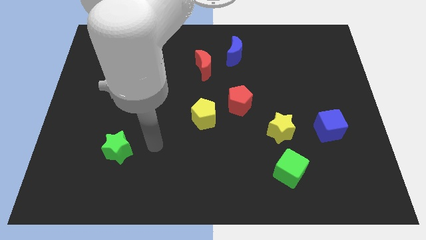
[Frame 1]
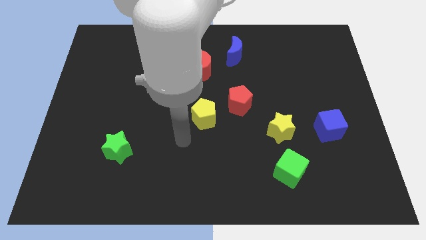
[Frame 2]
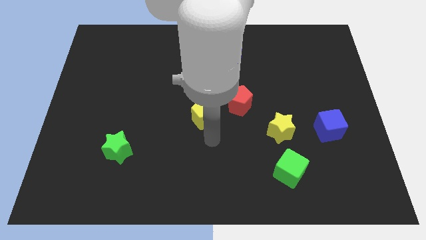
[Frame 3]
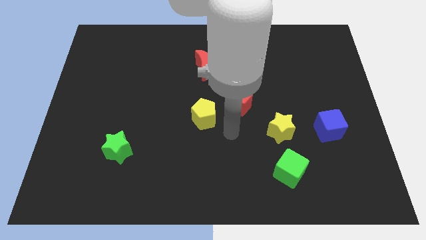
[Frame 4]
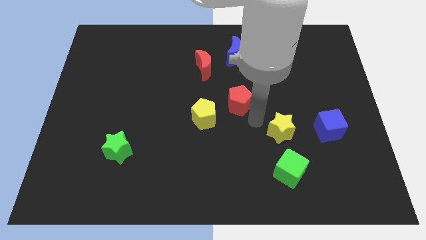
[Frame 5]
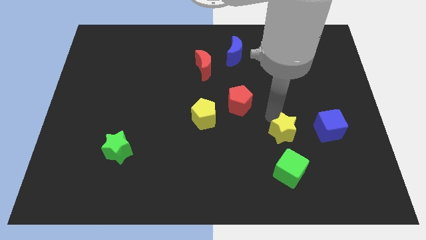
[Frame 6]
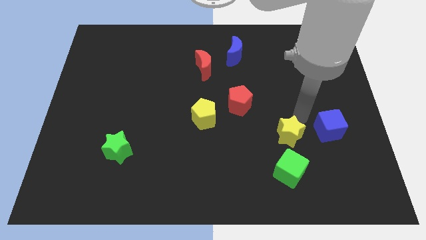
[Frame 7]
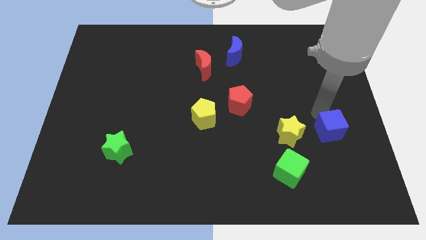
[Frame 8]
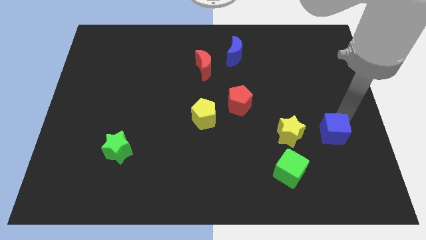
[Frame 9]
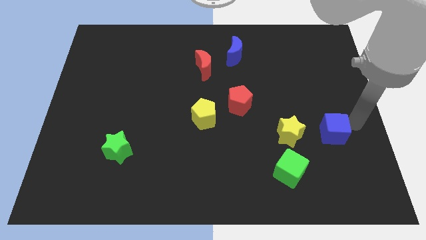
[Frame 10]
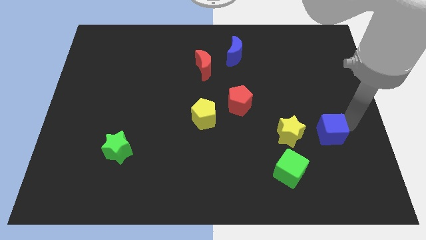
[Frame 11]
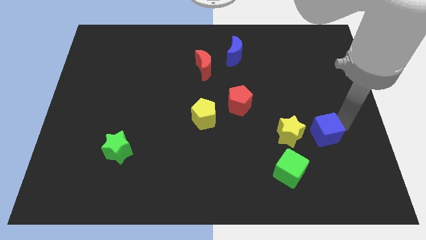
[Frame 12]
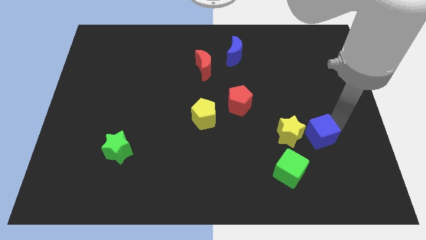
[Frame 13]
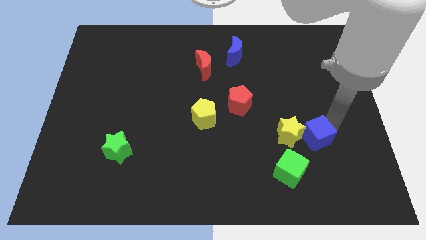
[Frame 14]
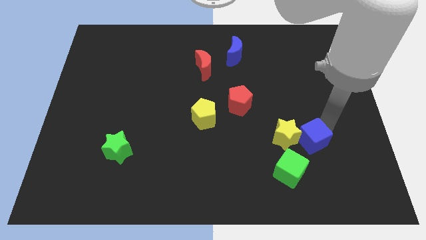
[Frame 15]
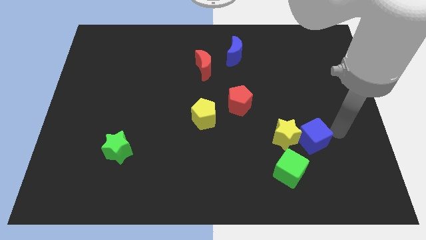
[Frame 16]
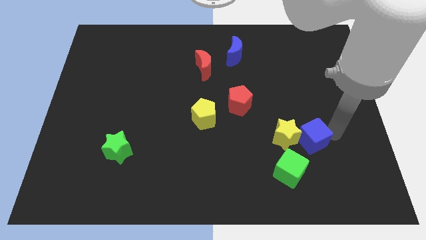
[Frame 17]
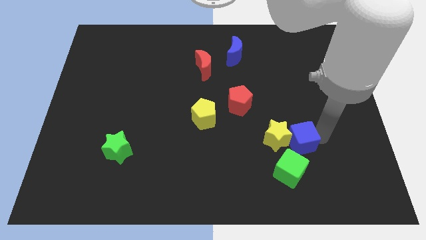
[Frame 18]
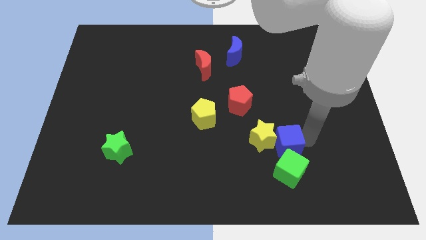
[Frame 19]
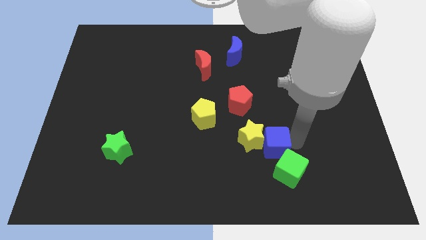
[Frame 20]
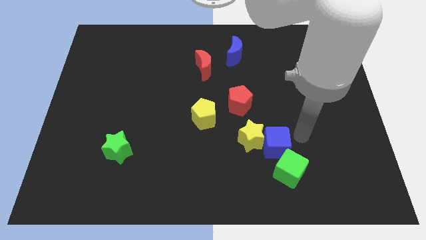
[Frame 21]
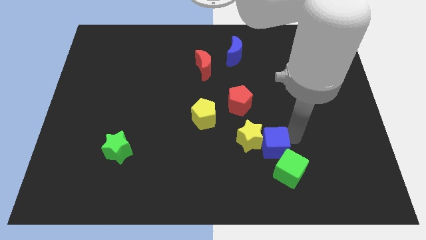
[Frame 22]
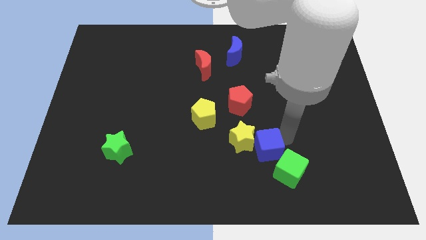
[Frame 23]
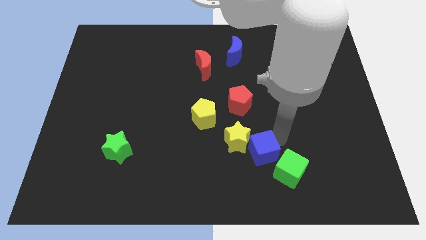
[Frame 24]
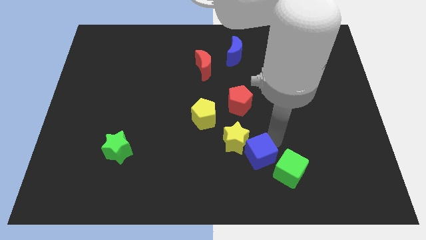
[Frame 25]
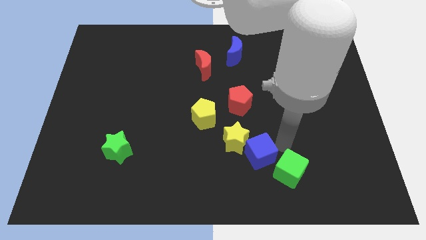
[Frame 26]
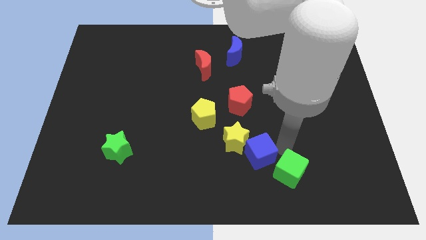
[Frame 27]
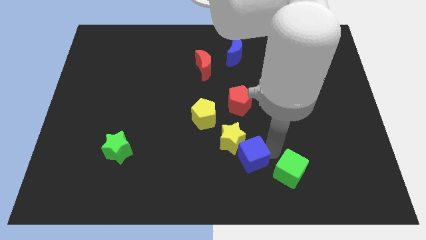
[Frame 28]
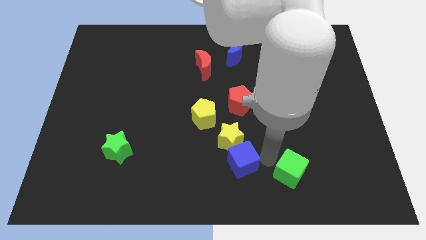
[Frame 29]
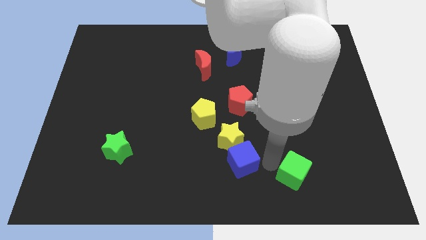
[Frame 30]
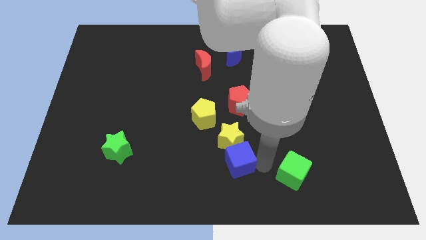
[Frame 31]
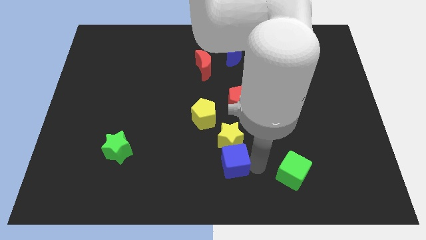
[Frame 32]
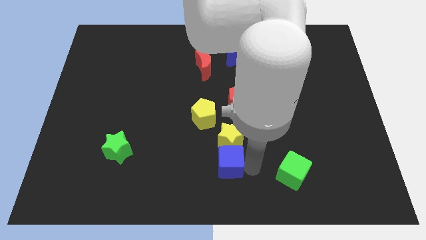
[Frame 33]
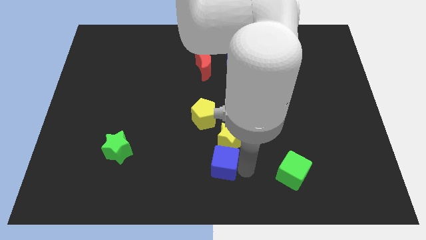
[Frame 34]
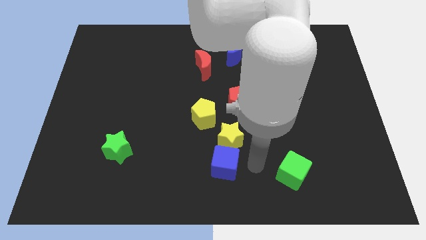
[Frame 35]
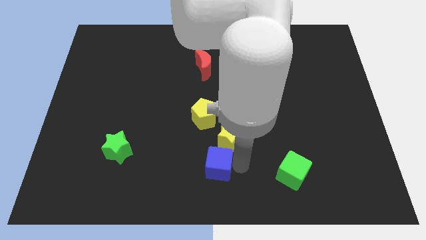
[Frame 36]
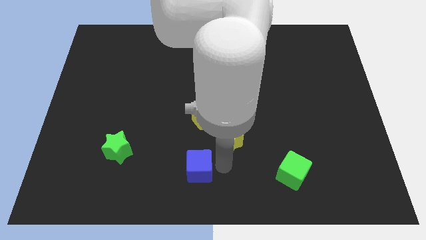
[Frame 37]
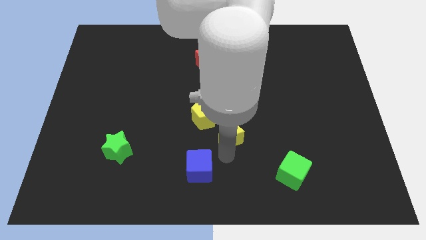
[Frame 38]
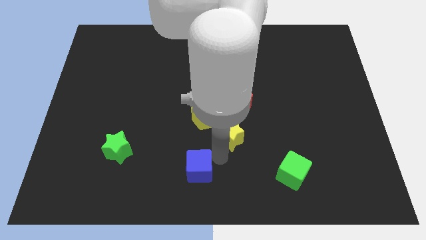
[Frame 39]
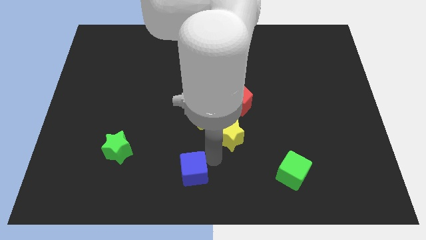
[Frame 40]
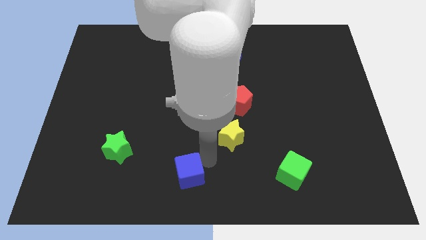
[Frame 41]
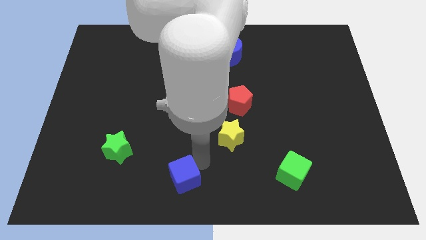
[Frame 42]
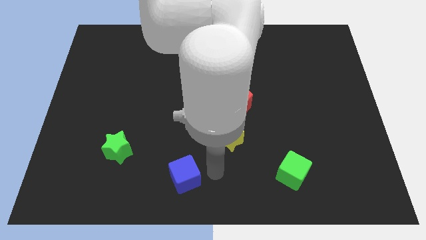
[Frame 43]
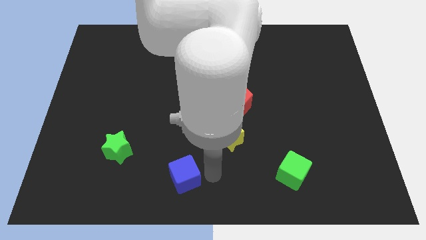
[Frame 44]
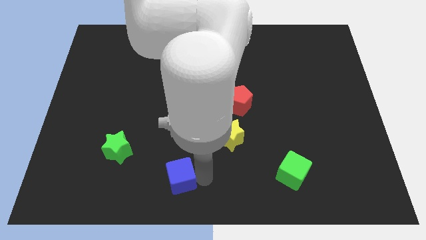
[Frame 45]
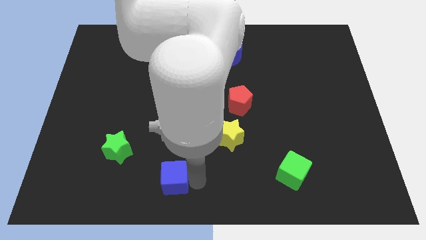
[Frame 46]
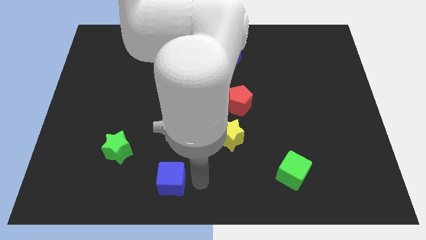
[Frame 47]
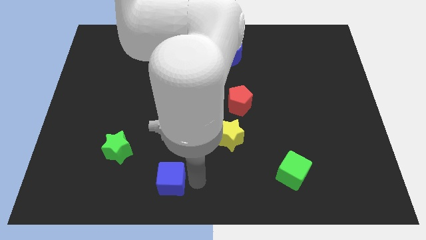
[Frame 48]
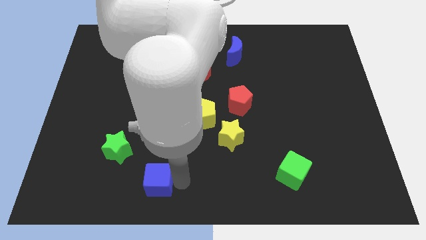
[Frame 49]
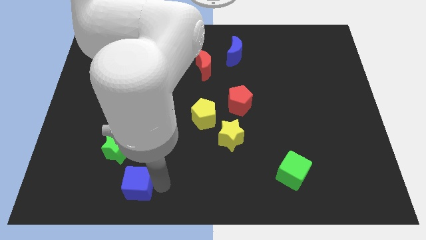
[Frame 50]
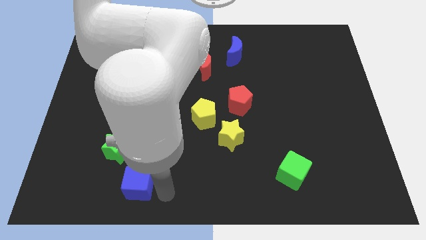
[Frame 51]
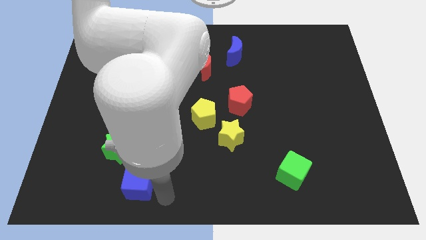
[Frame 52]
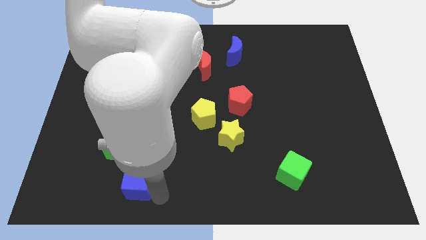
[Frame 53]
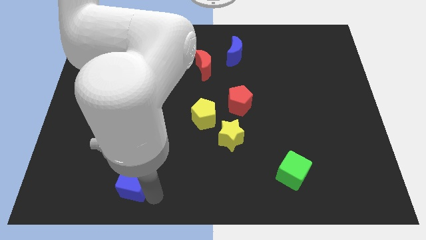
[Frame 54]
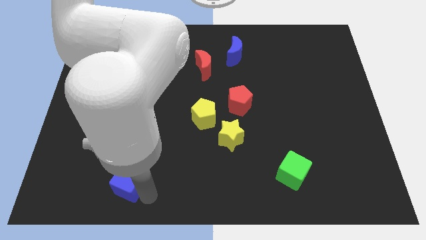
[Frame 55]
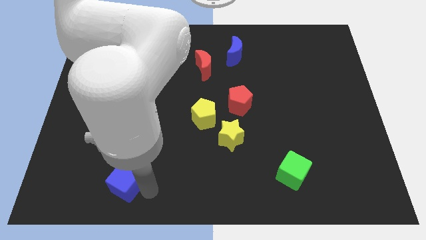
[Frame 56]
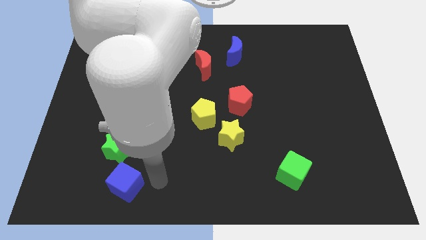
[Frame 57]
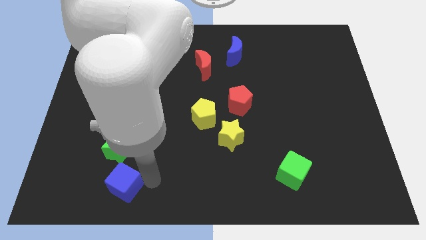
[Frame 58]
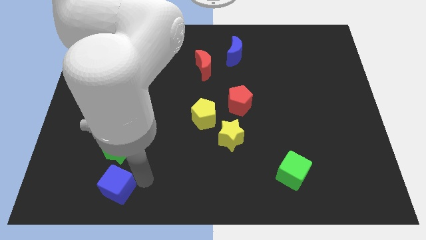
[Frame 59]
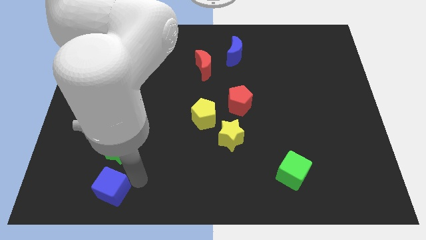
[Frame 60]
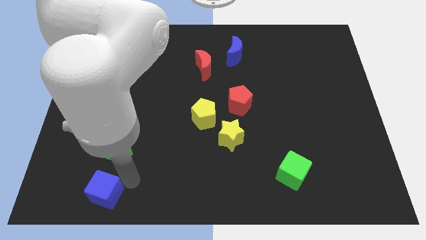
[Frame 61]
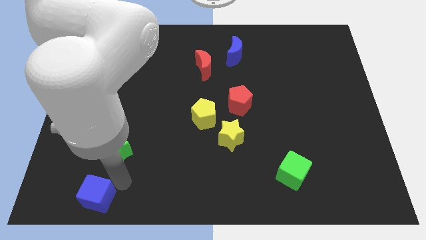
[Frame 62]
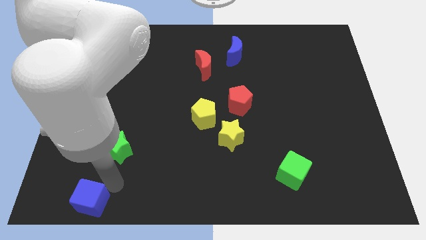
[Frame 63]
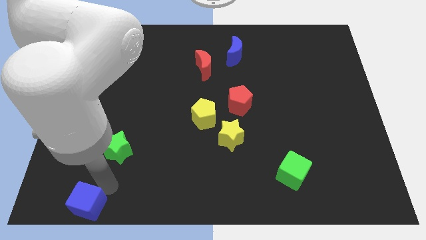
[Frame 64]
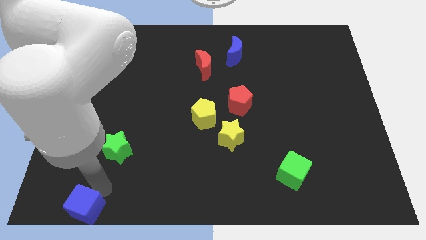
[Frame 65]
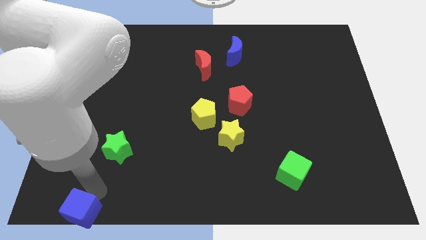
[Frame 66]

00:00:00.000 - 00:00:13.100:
put the blue cube to the bottom left corner
